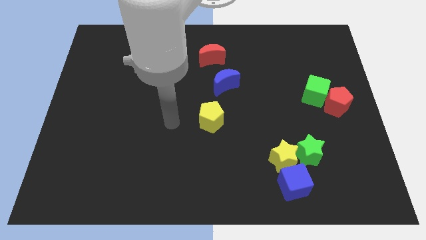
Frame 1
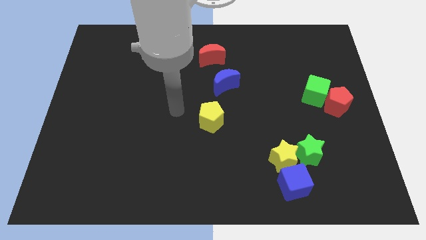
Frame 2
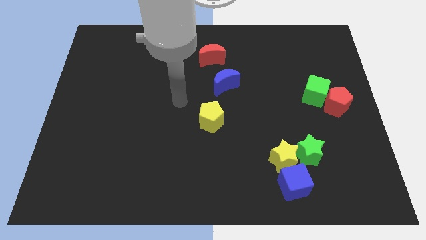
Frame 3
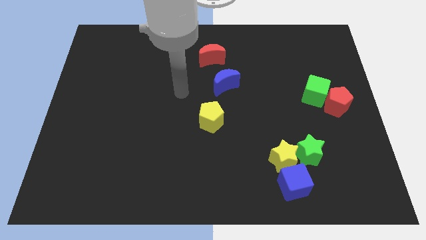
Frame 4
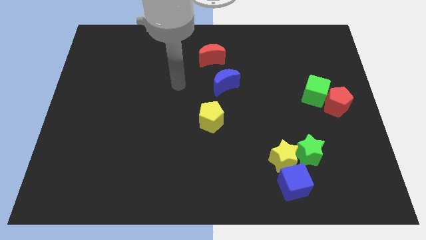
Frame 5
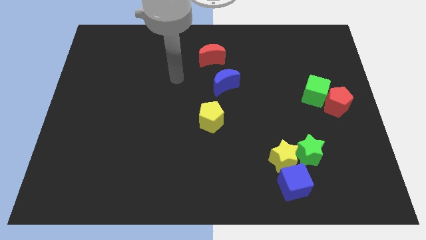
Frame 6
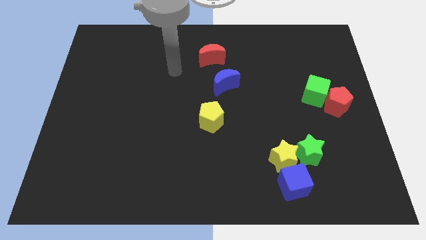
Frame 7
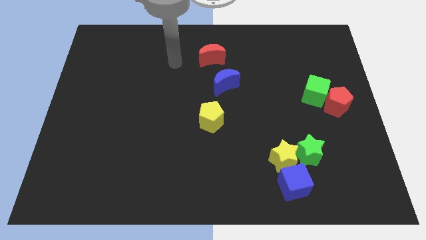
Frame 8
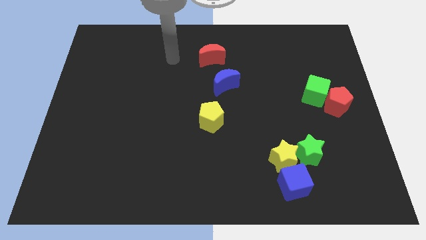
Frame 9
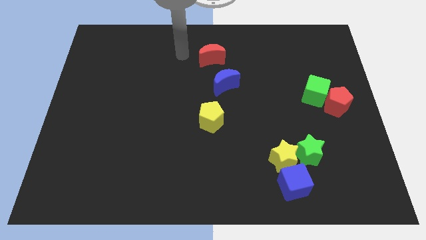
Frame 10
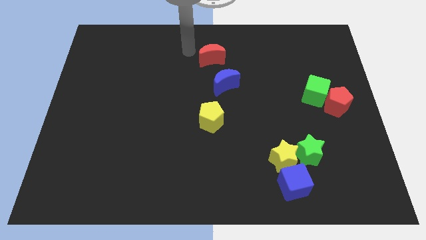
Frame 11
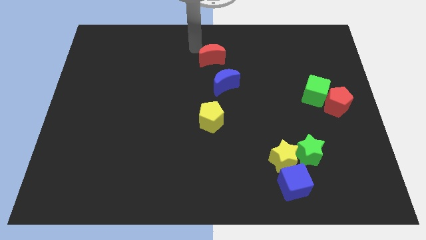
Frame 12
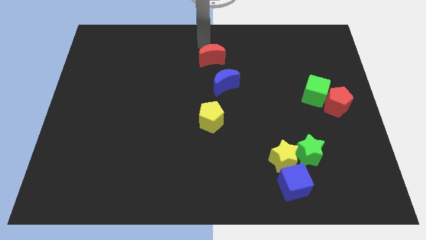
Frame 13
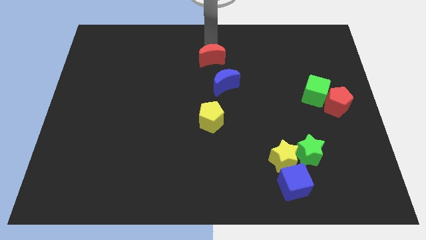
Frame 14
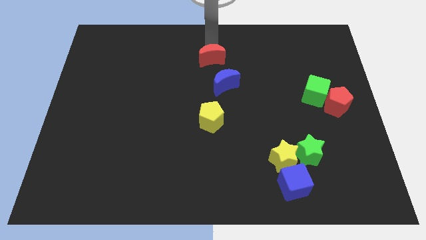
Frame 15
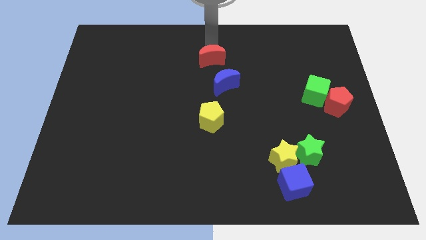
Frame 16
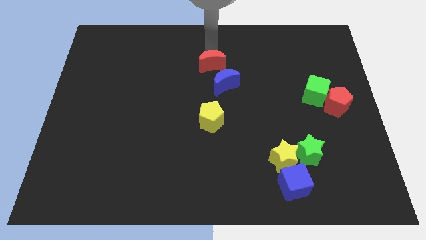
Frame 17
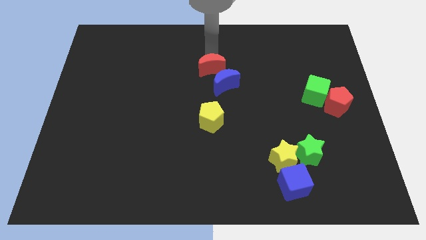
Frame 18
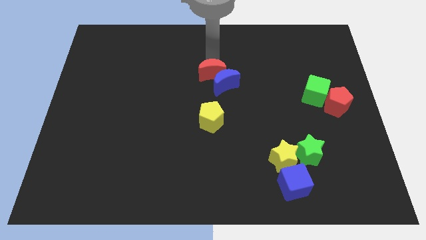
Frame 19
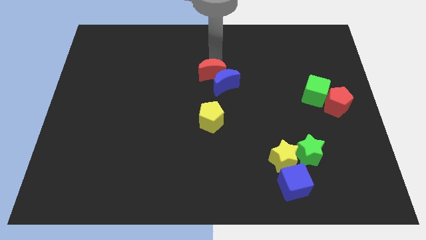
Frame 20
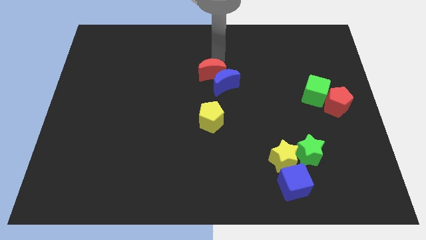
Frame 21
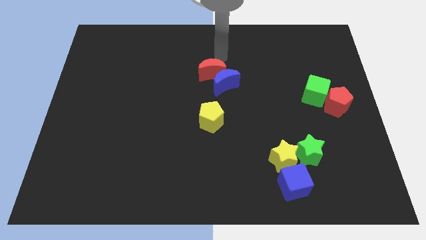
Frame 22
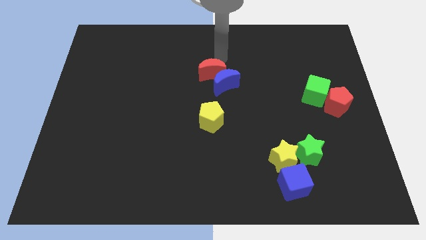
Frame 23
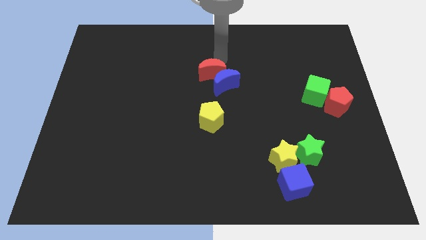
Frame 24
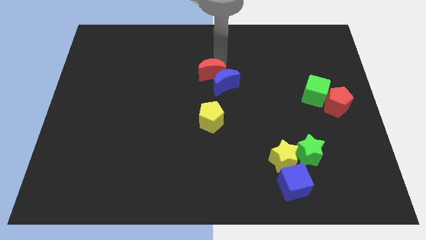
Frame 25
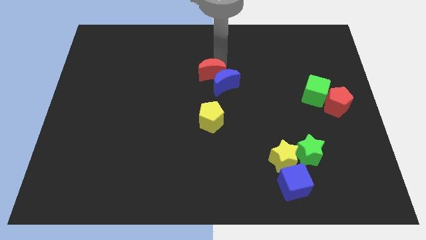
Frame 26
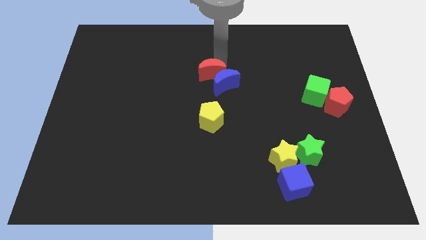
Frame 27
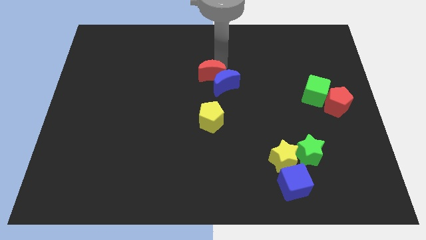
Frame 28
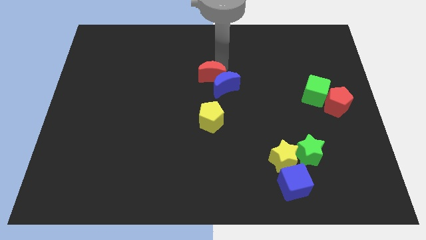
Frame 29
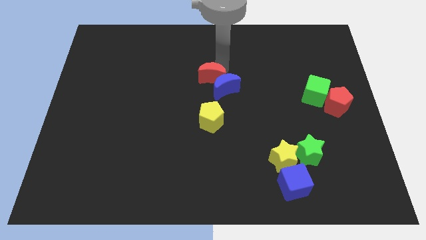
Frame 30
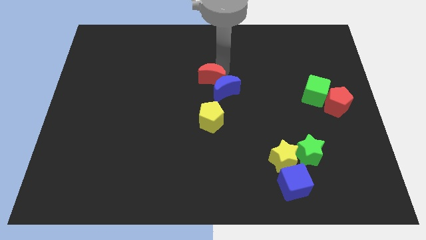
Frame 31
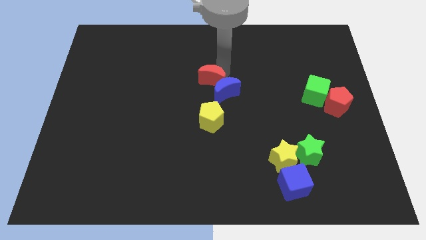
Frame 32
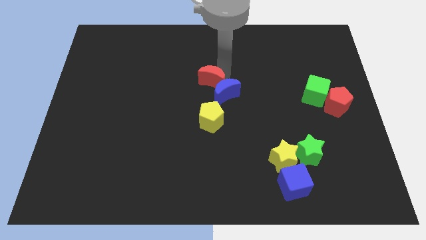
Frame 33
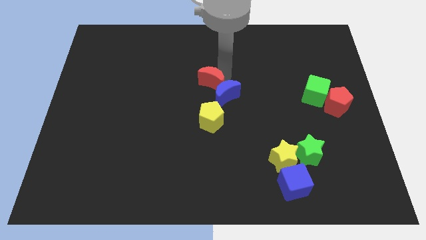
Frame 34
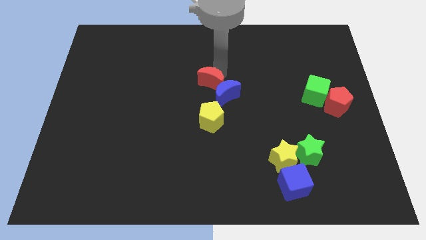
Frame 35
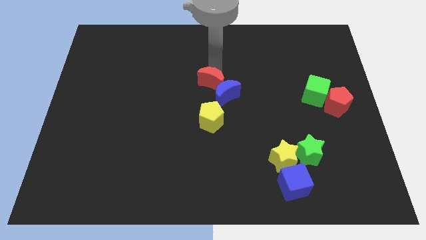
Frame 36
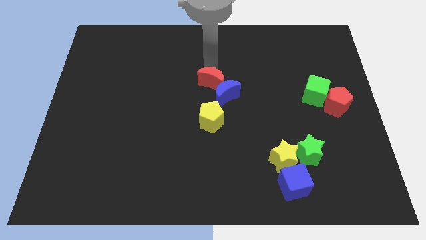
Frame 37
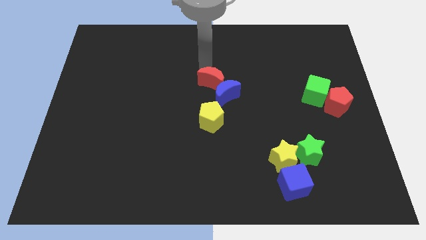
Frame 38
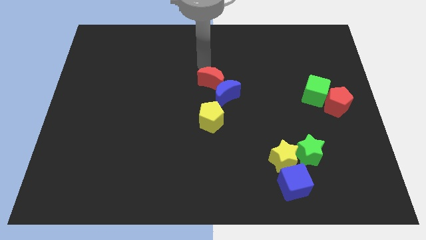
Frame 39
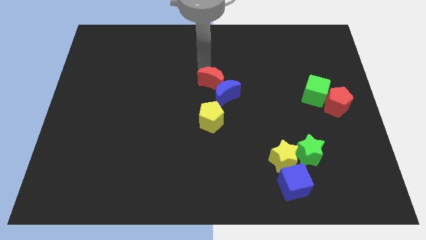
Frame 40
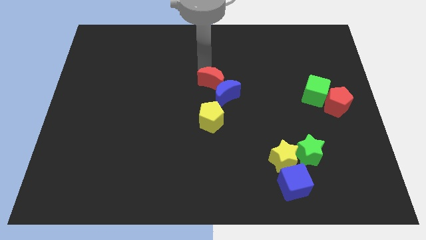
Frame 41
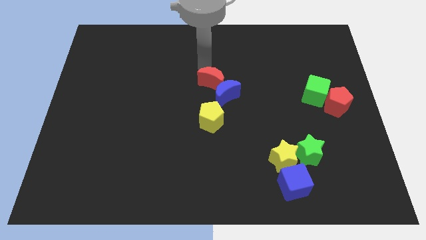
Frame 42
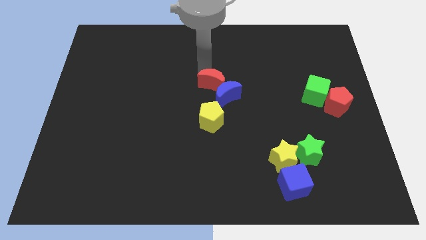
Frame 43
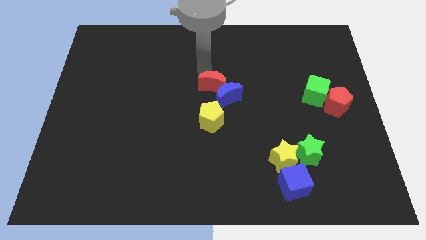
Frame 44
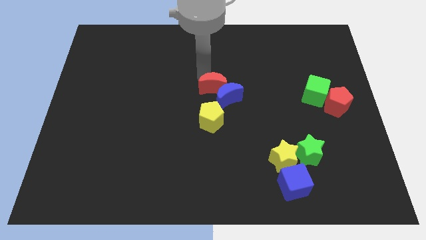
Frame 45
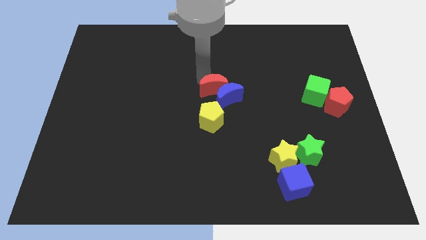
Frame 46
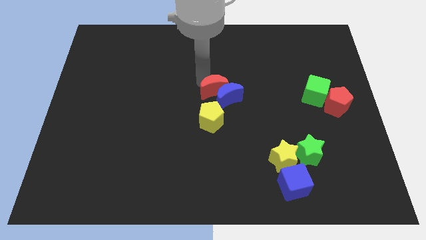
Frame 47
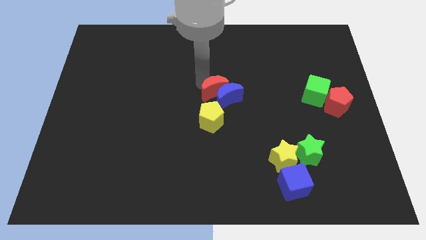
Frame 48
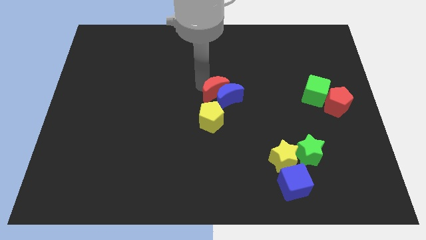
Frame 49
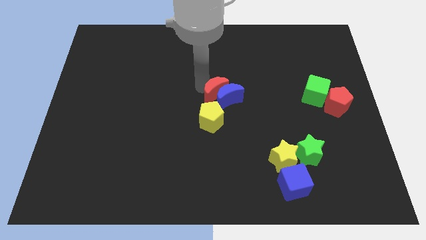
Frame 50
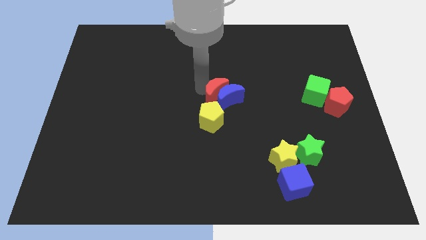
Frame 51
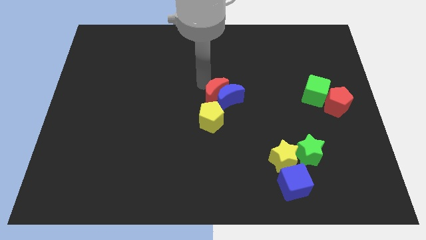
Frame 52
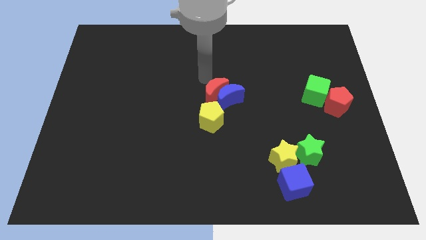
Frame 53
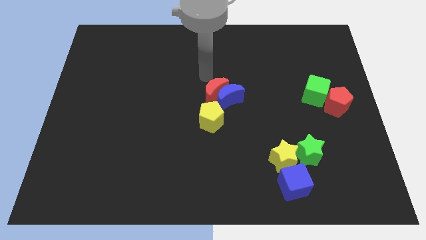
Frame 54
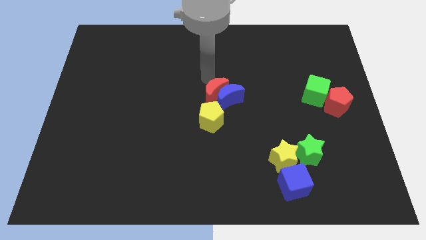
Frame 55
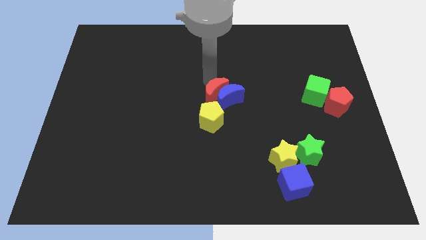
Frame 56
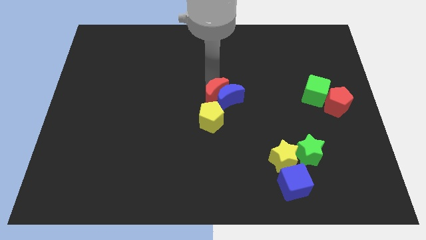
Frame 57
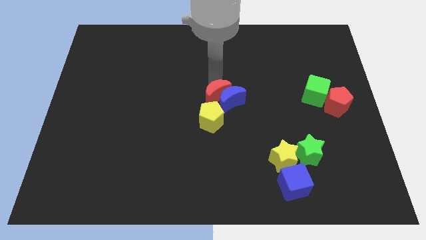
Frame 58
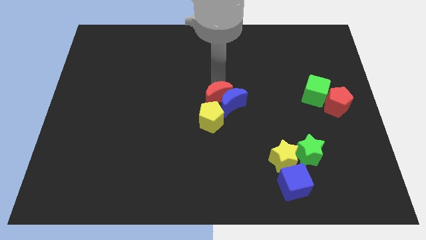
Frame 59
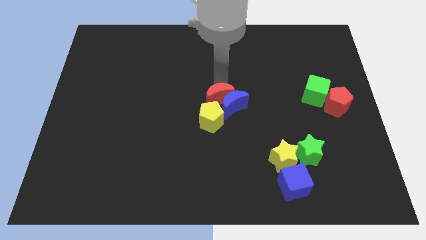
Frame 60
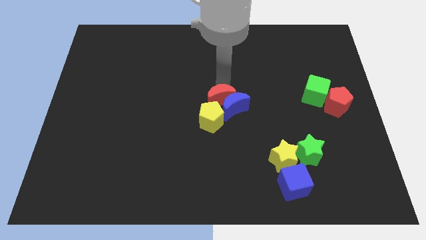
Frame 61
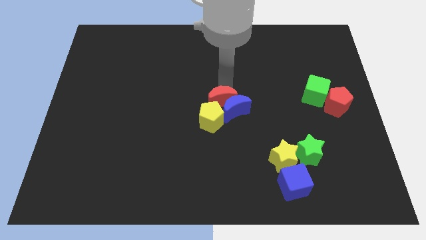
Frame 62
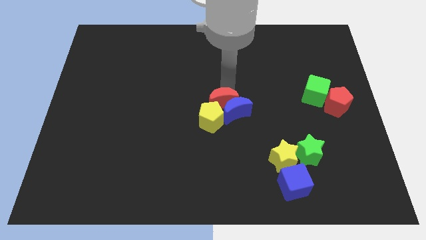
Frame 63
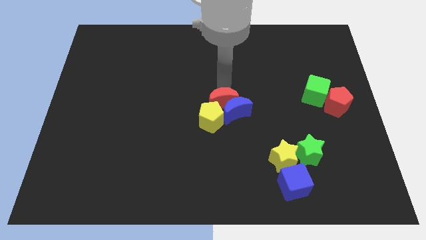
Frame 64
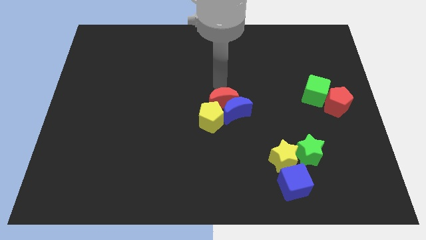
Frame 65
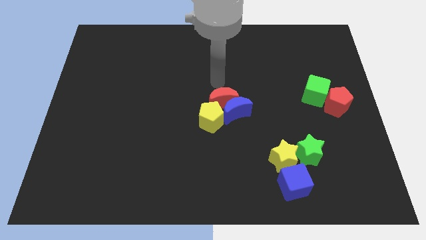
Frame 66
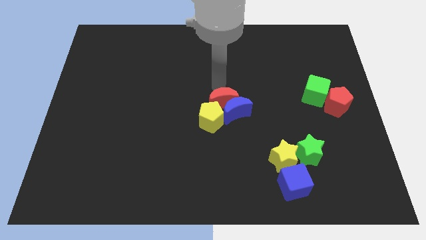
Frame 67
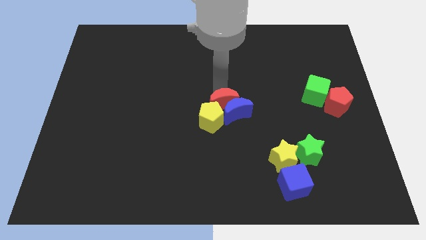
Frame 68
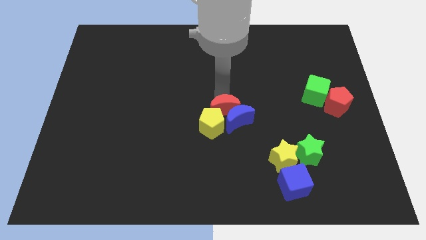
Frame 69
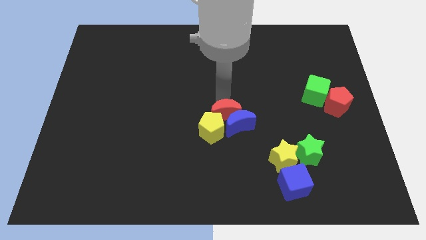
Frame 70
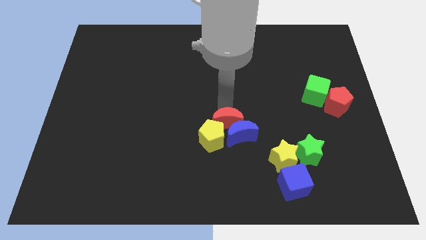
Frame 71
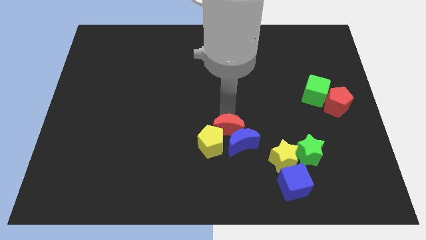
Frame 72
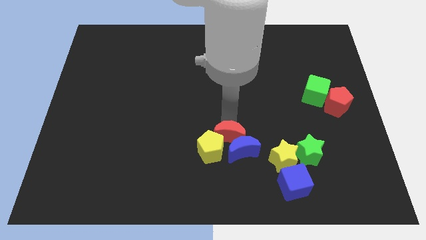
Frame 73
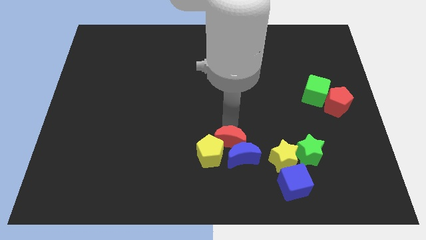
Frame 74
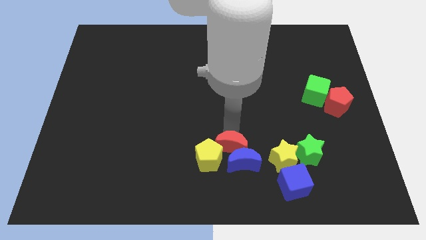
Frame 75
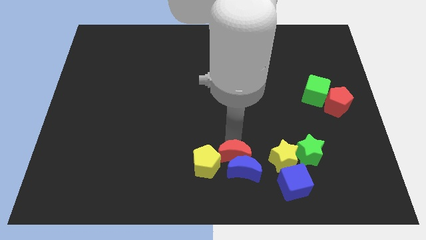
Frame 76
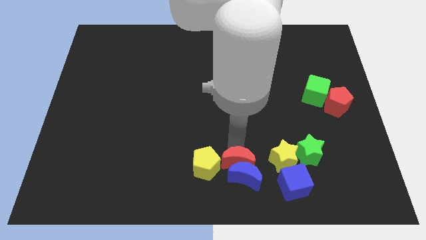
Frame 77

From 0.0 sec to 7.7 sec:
move the red moon to the bottom side
